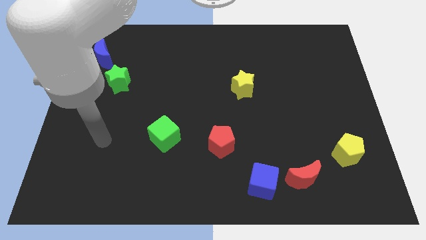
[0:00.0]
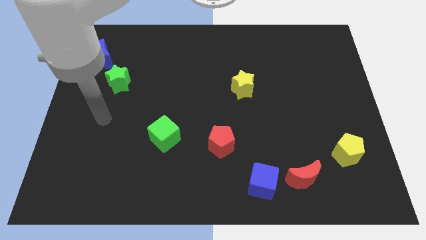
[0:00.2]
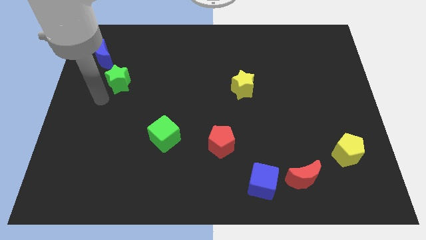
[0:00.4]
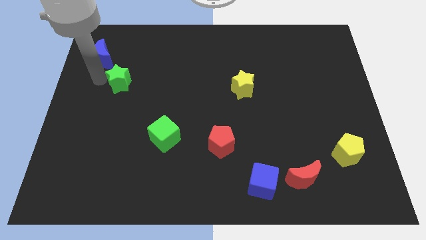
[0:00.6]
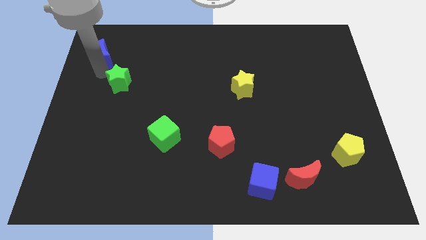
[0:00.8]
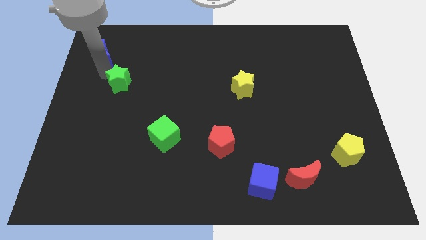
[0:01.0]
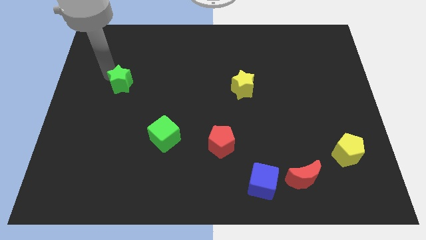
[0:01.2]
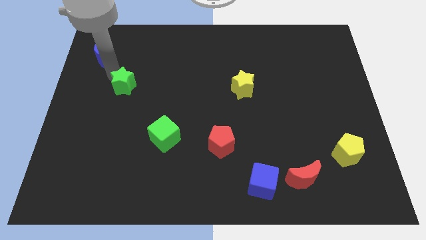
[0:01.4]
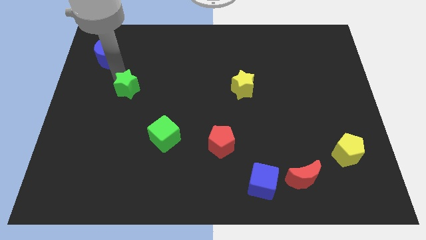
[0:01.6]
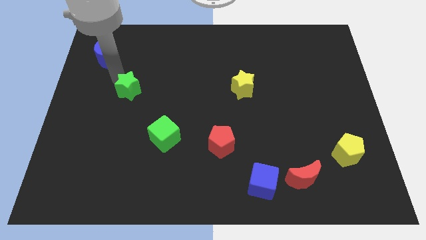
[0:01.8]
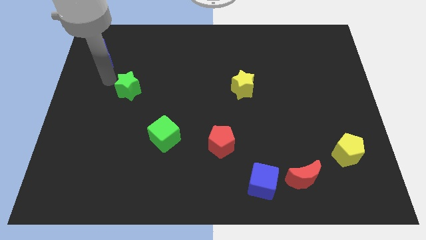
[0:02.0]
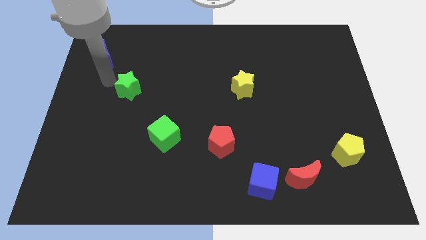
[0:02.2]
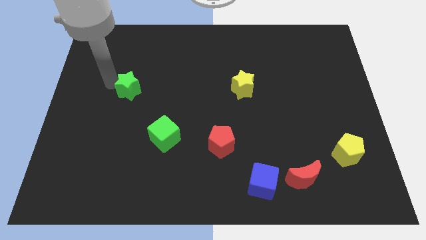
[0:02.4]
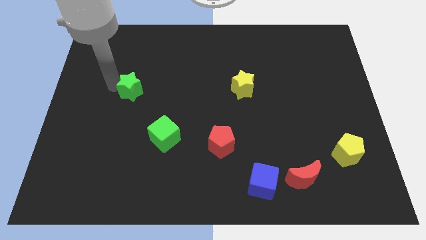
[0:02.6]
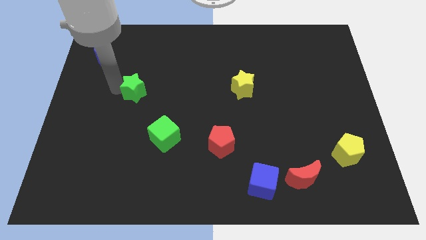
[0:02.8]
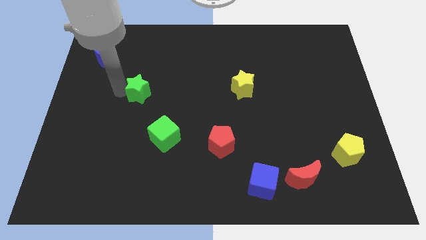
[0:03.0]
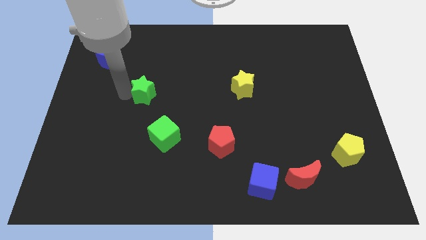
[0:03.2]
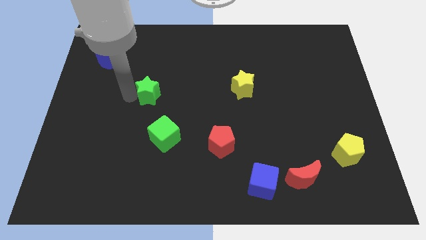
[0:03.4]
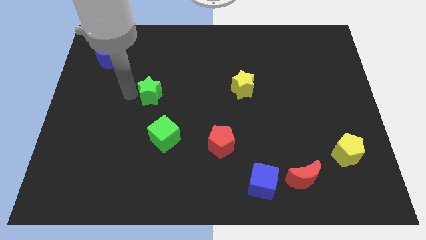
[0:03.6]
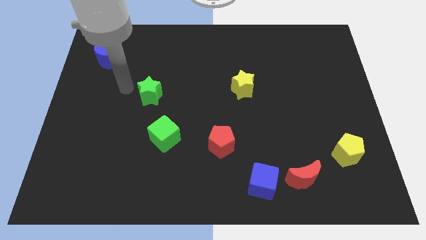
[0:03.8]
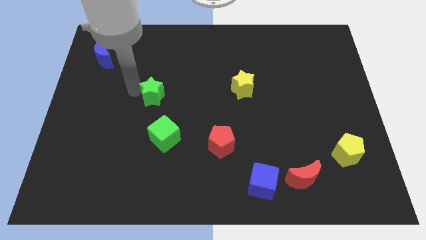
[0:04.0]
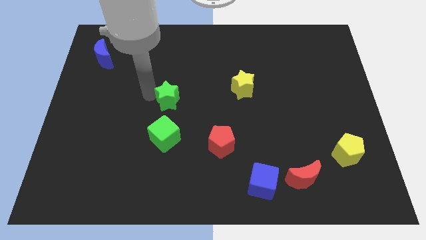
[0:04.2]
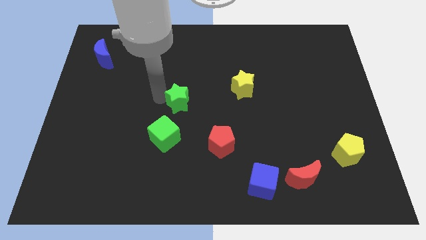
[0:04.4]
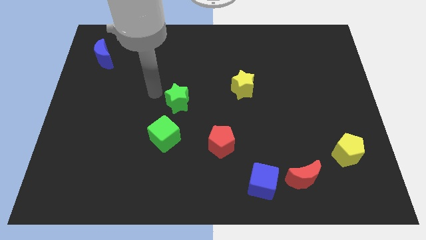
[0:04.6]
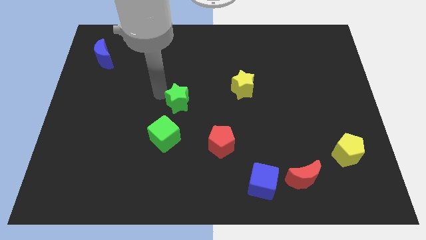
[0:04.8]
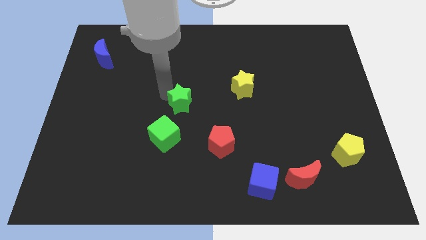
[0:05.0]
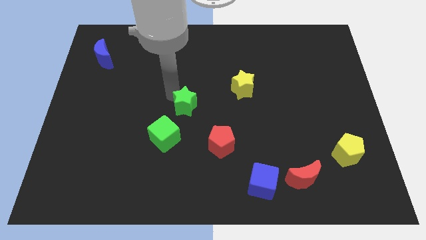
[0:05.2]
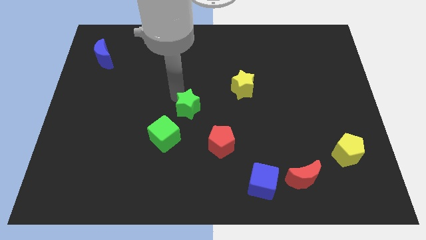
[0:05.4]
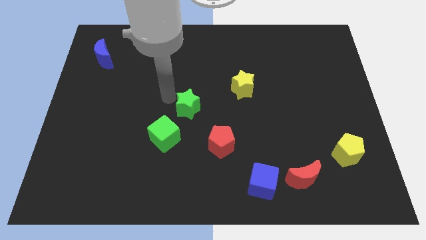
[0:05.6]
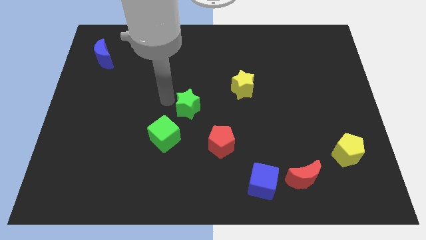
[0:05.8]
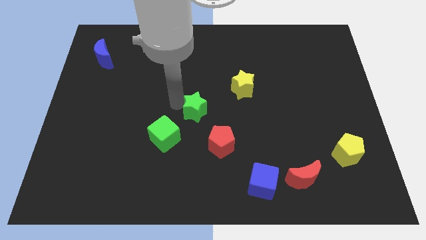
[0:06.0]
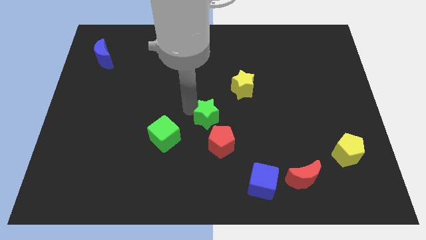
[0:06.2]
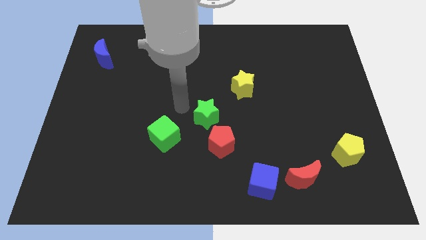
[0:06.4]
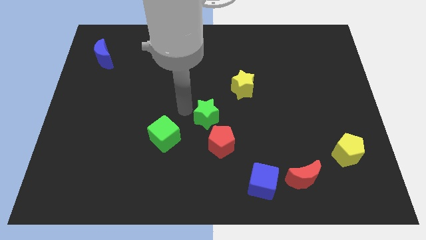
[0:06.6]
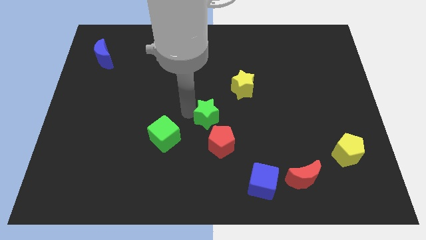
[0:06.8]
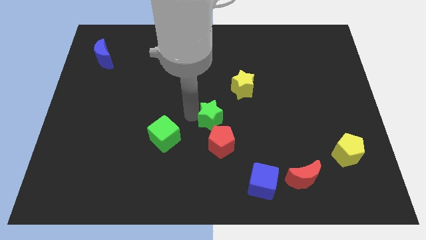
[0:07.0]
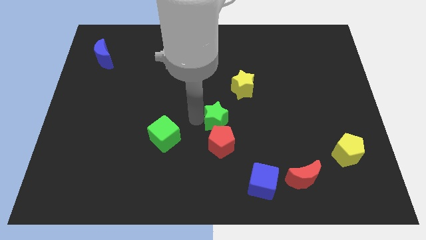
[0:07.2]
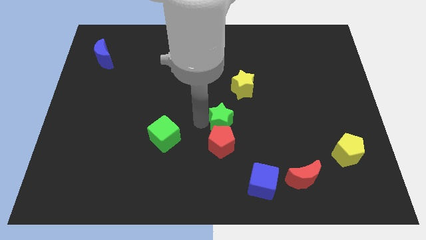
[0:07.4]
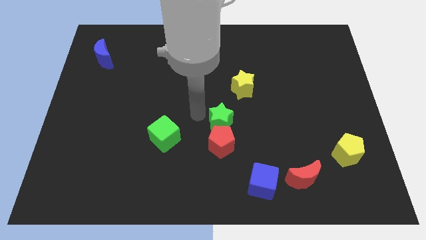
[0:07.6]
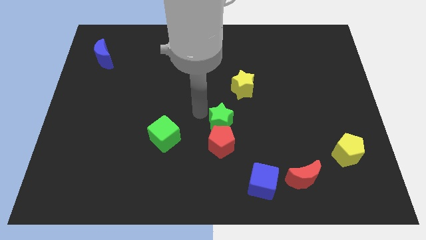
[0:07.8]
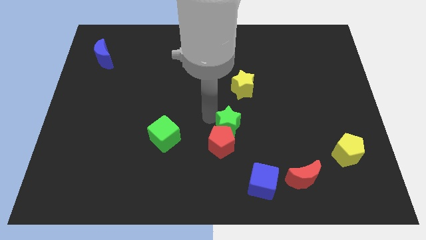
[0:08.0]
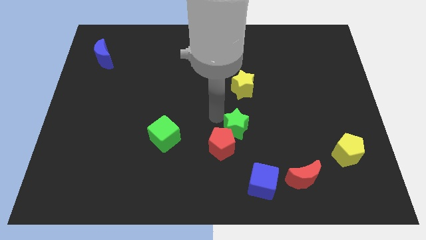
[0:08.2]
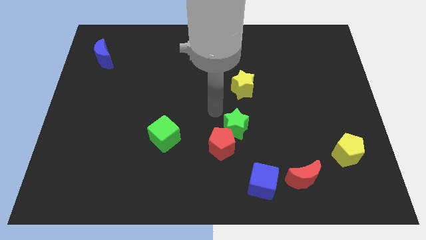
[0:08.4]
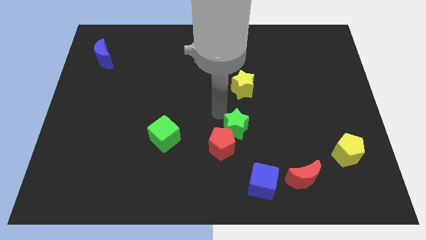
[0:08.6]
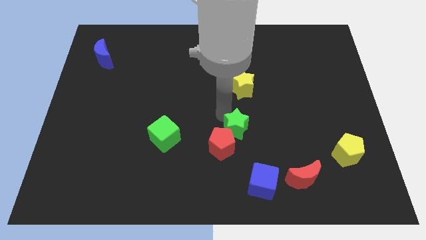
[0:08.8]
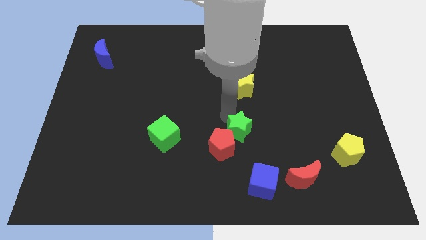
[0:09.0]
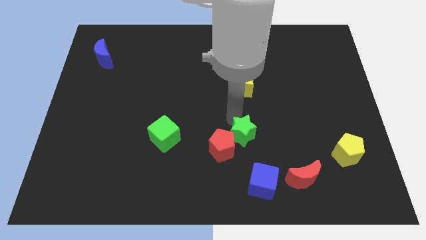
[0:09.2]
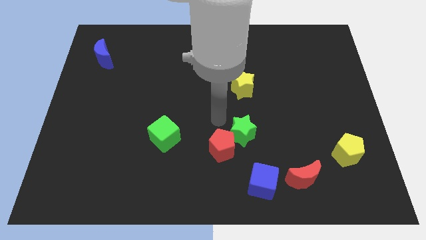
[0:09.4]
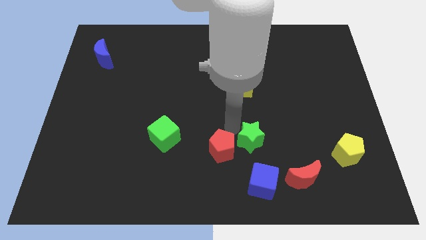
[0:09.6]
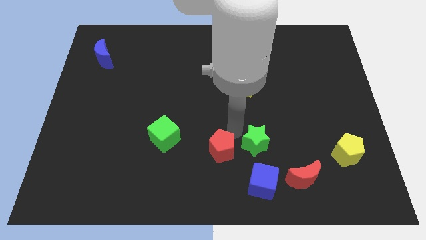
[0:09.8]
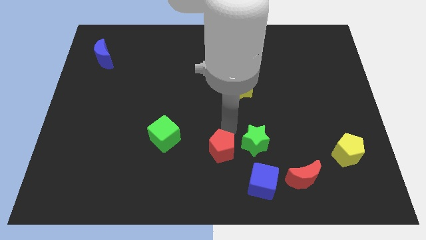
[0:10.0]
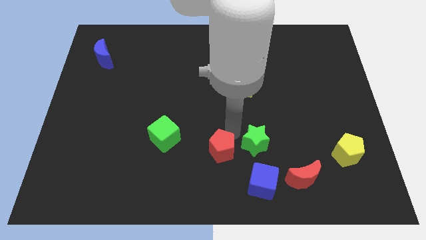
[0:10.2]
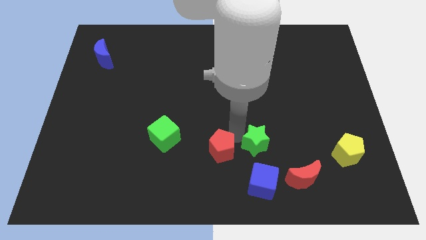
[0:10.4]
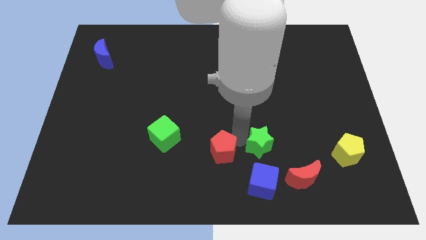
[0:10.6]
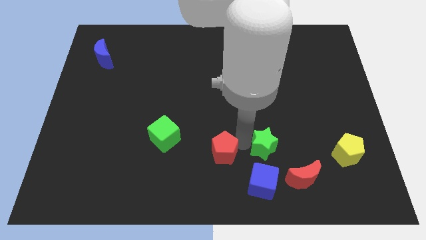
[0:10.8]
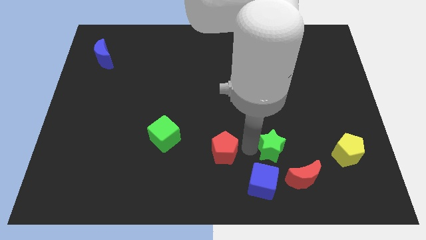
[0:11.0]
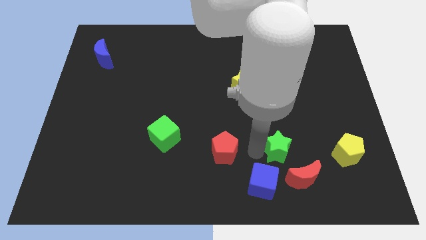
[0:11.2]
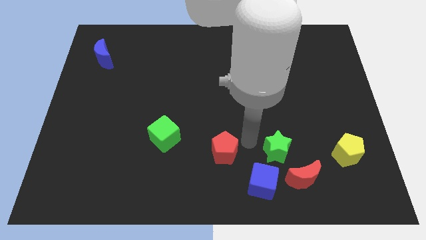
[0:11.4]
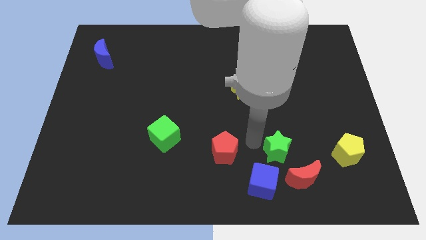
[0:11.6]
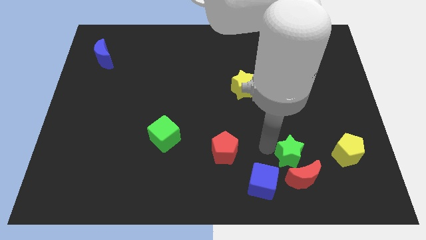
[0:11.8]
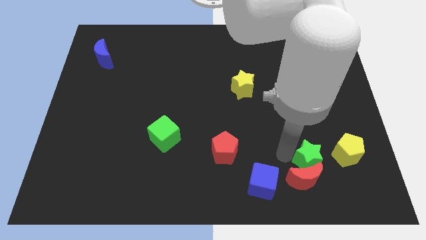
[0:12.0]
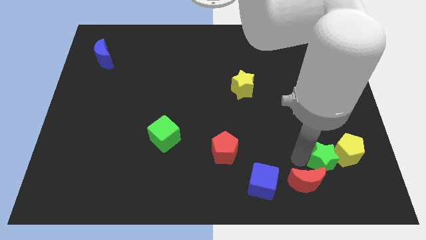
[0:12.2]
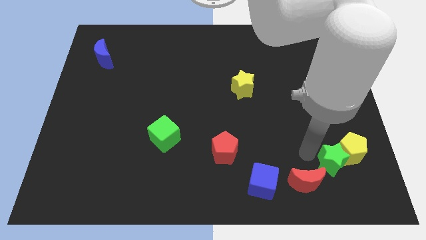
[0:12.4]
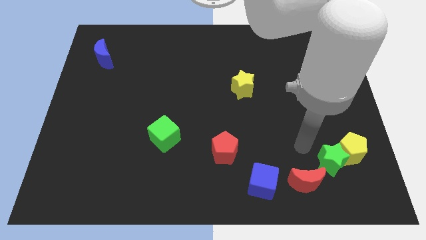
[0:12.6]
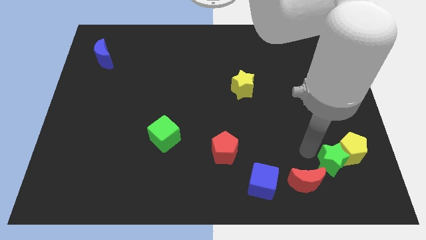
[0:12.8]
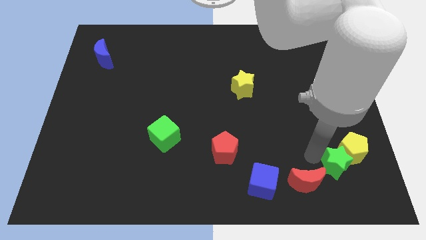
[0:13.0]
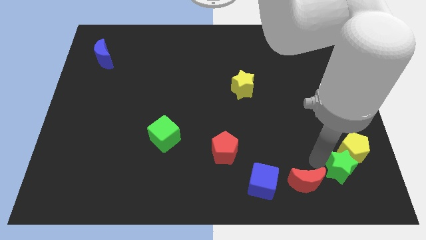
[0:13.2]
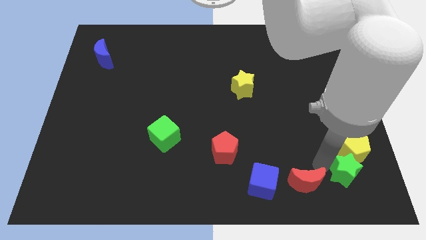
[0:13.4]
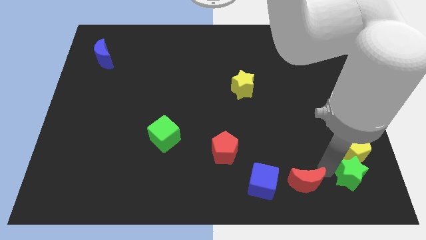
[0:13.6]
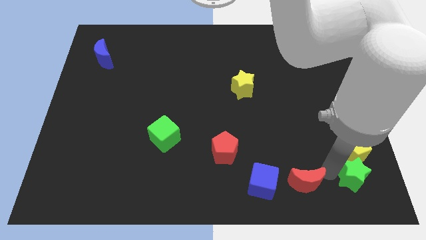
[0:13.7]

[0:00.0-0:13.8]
slide the green star to the lower right corner
